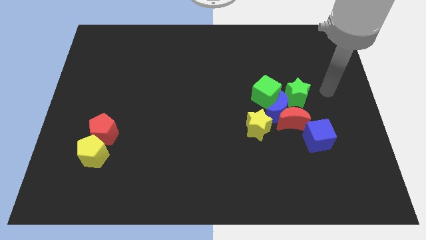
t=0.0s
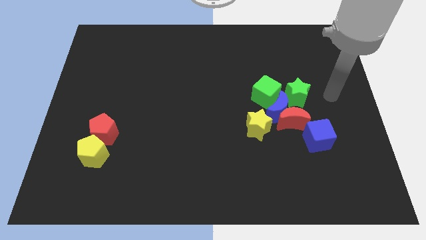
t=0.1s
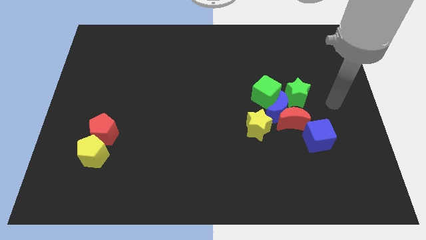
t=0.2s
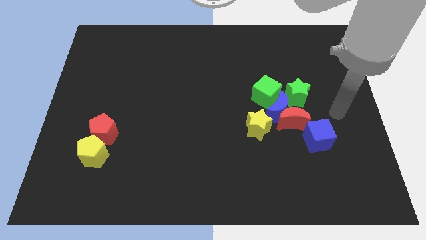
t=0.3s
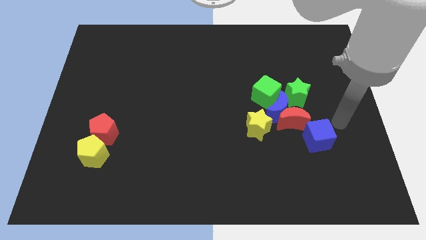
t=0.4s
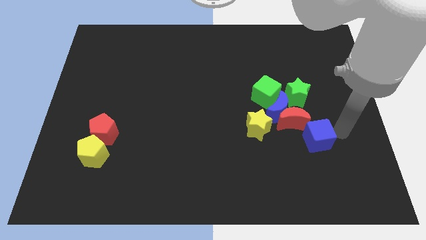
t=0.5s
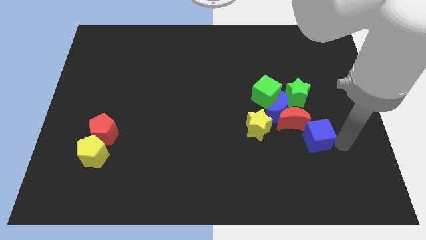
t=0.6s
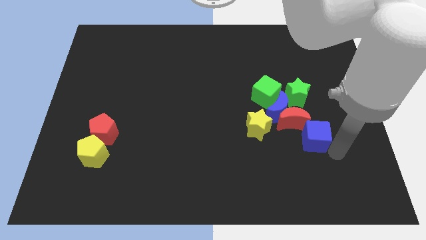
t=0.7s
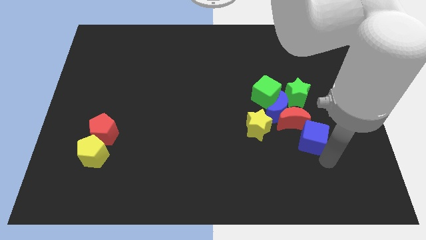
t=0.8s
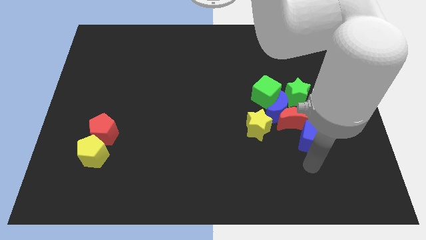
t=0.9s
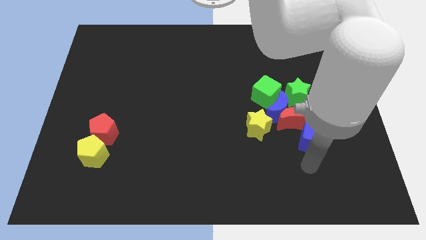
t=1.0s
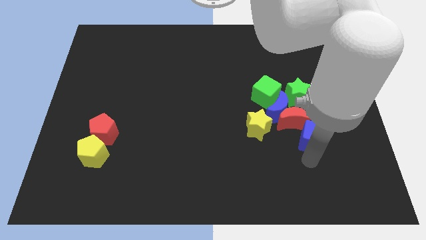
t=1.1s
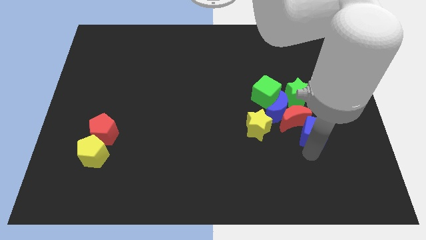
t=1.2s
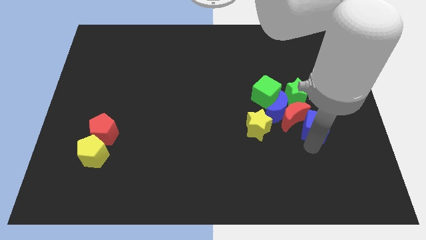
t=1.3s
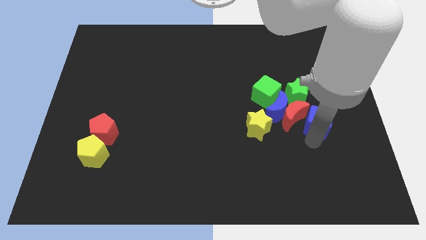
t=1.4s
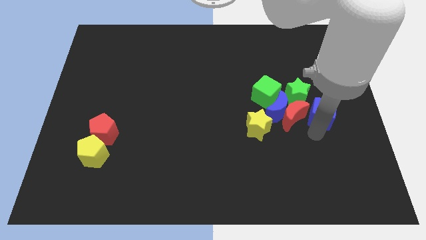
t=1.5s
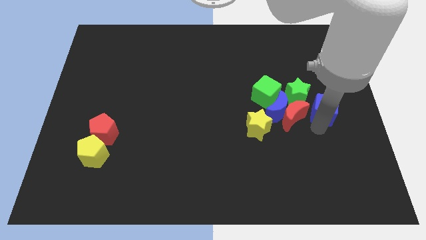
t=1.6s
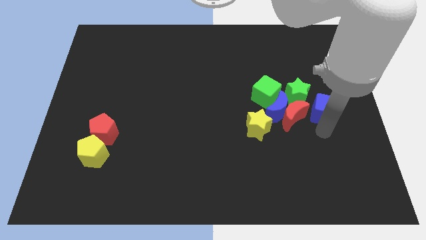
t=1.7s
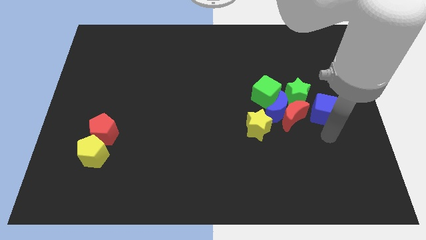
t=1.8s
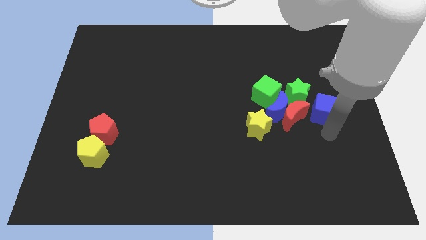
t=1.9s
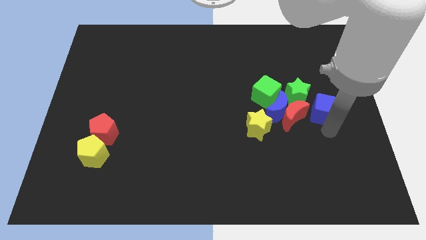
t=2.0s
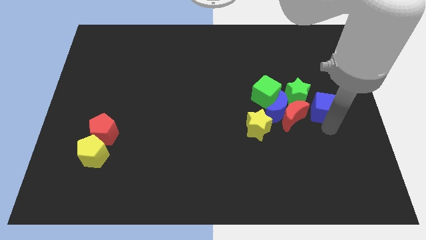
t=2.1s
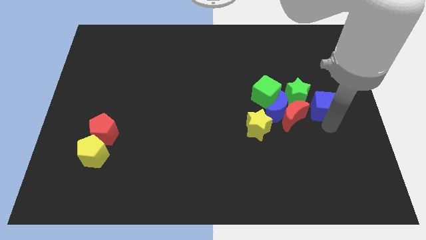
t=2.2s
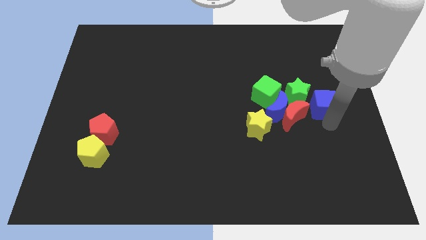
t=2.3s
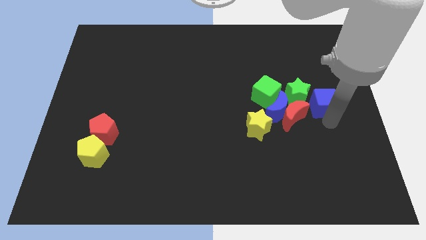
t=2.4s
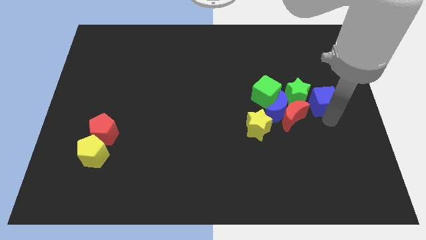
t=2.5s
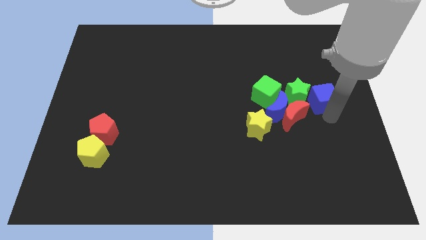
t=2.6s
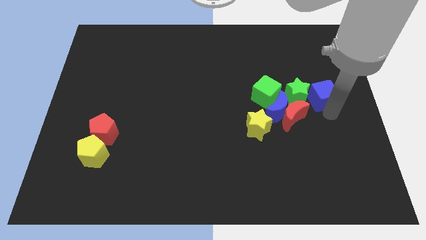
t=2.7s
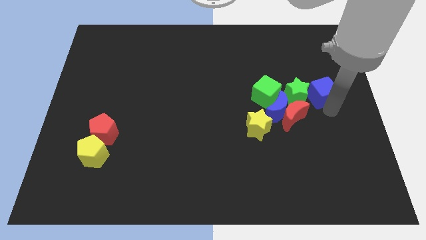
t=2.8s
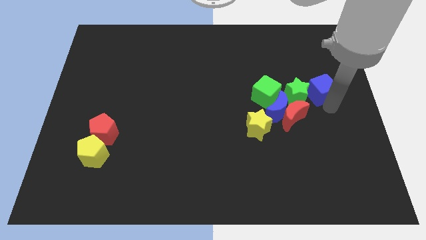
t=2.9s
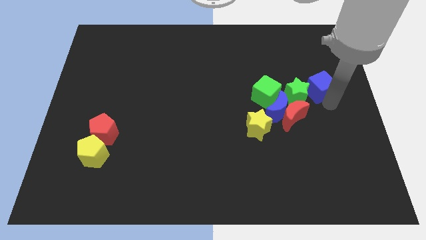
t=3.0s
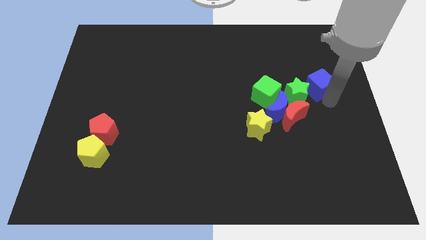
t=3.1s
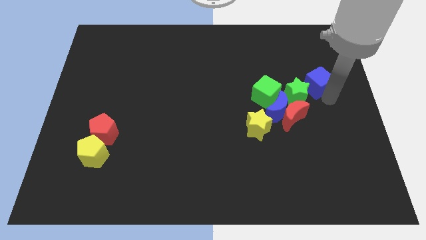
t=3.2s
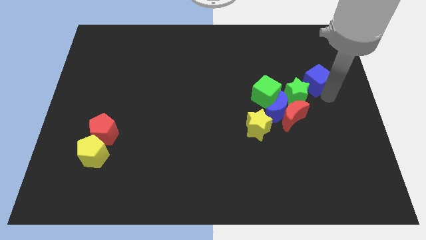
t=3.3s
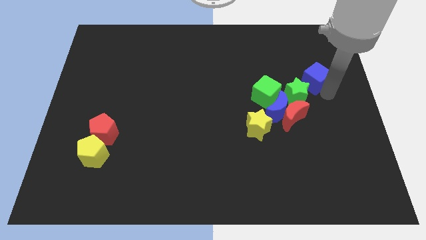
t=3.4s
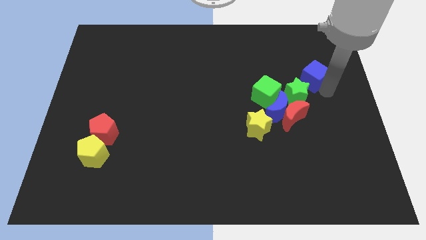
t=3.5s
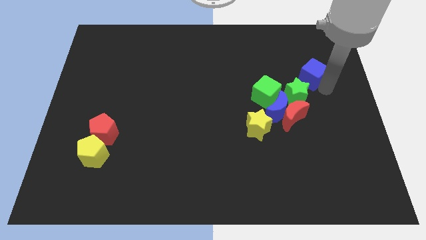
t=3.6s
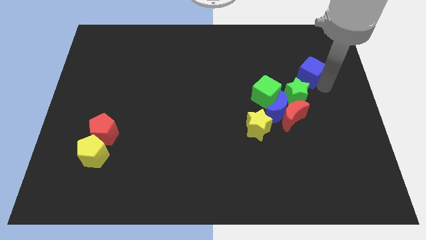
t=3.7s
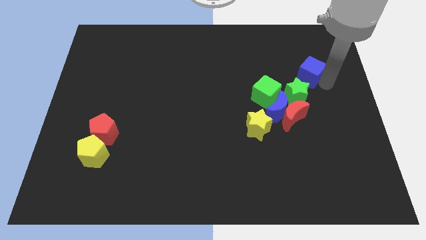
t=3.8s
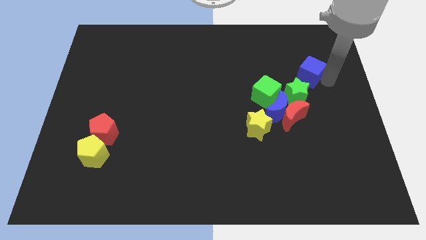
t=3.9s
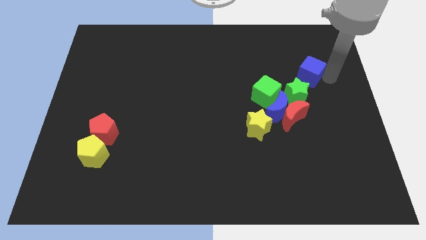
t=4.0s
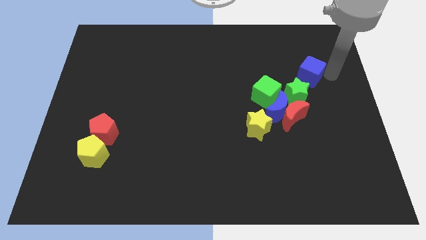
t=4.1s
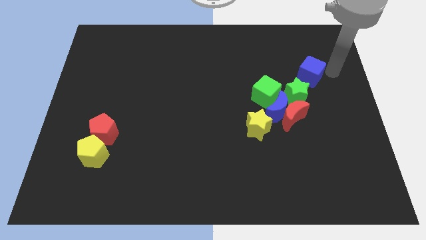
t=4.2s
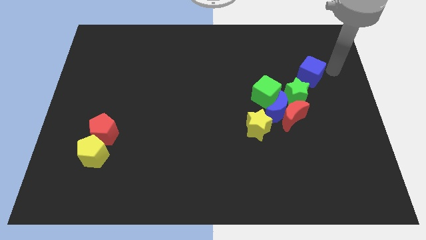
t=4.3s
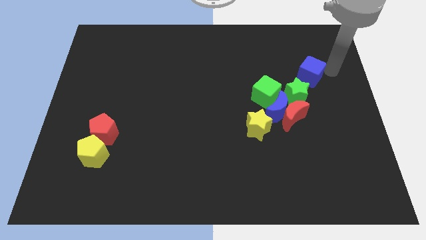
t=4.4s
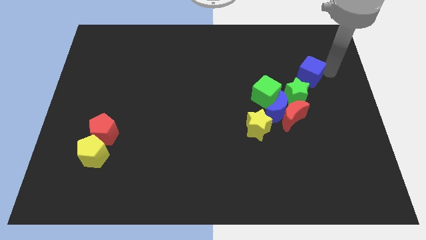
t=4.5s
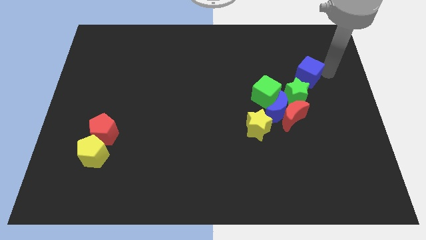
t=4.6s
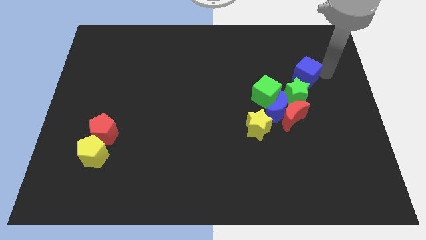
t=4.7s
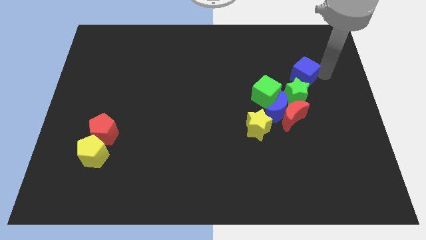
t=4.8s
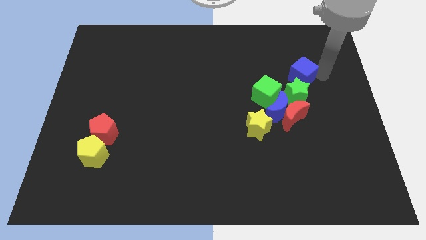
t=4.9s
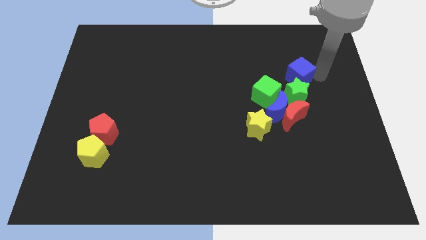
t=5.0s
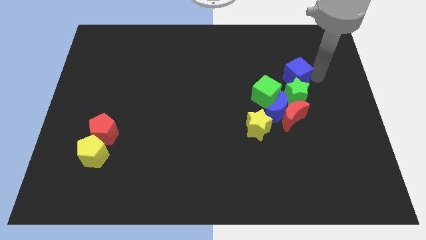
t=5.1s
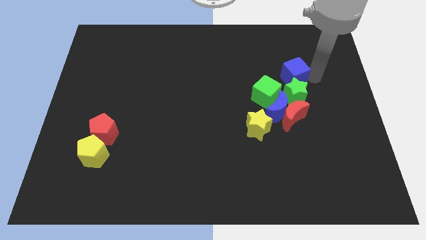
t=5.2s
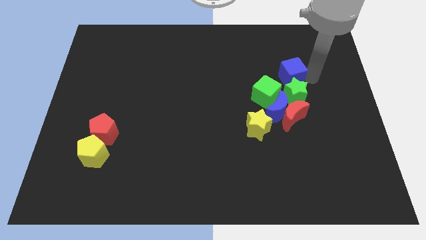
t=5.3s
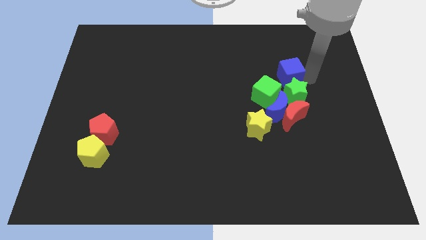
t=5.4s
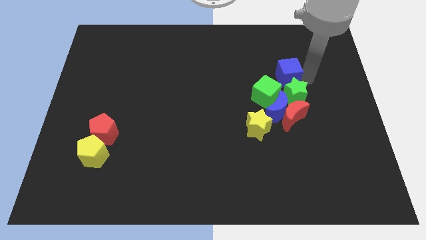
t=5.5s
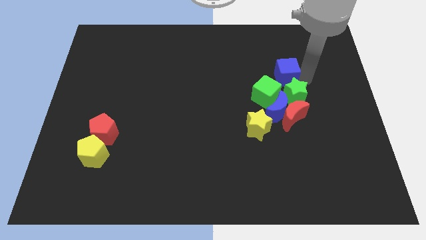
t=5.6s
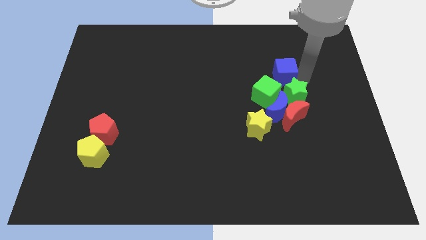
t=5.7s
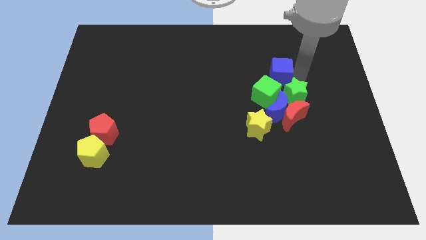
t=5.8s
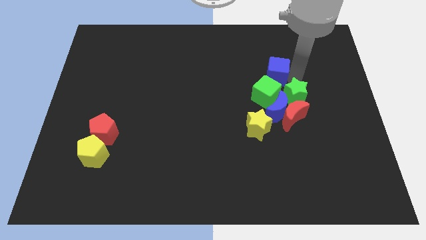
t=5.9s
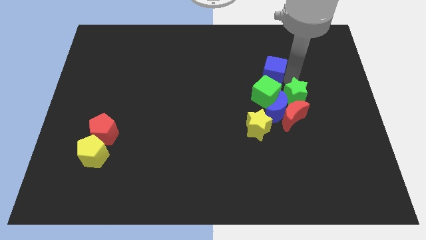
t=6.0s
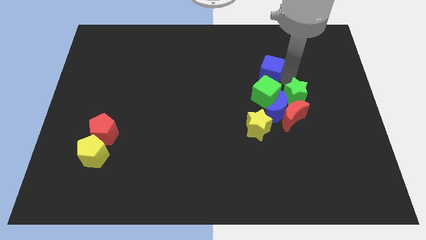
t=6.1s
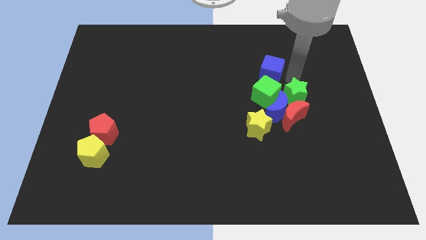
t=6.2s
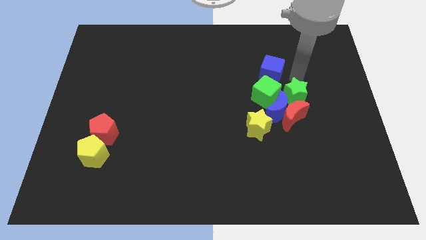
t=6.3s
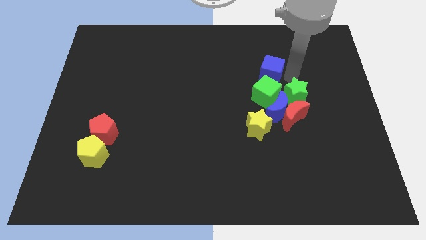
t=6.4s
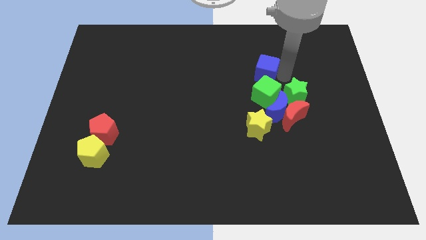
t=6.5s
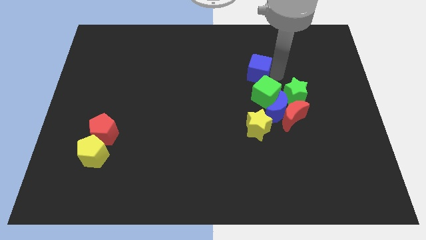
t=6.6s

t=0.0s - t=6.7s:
push the blue cube up and left

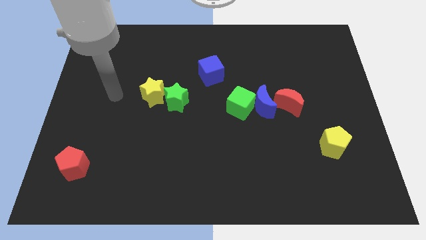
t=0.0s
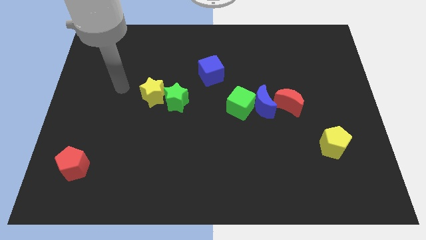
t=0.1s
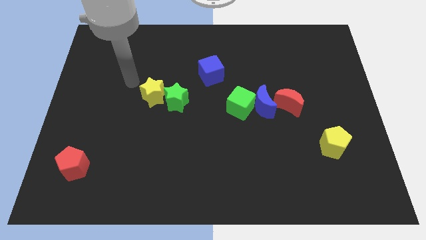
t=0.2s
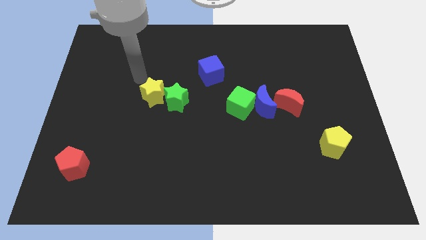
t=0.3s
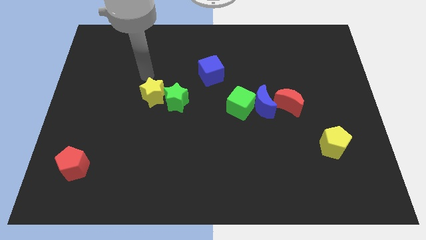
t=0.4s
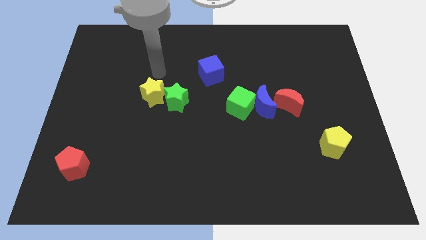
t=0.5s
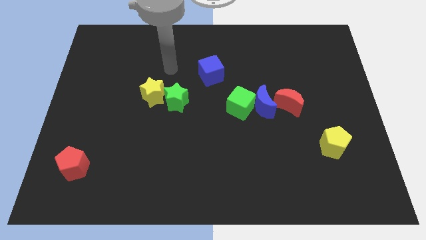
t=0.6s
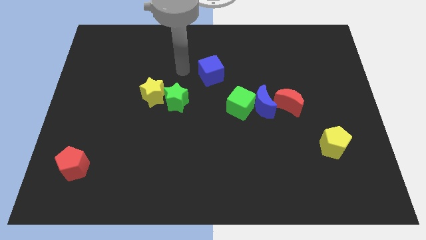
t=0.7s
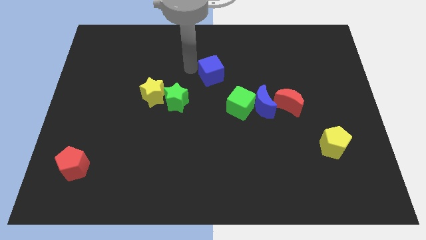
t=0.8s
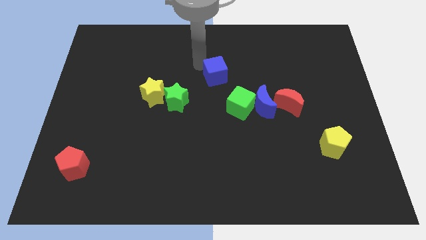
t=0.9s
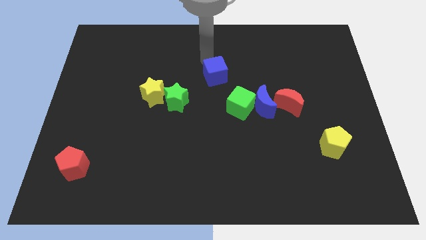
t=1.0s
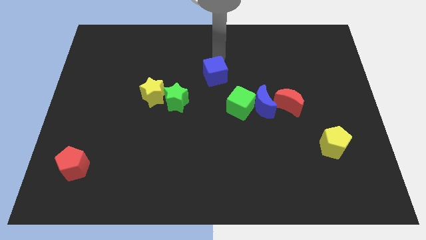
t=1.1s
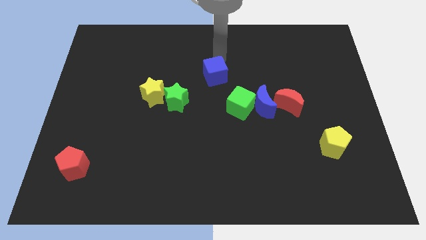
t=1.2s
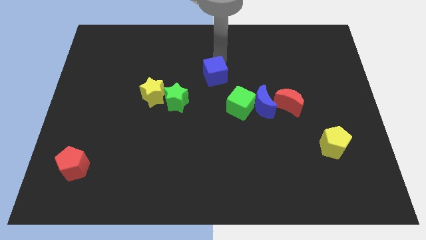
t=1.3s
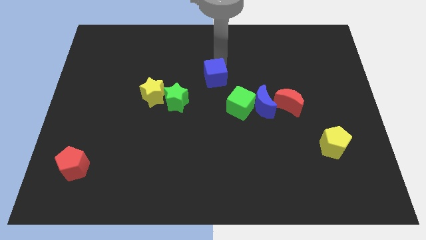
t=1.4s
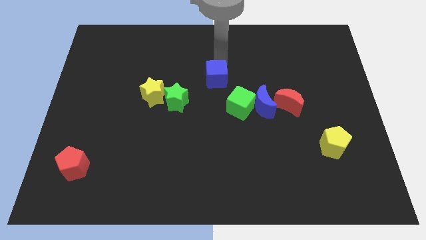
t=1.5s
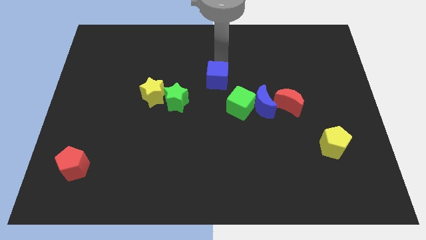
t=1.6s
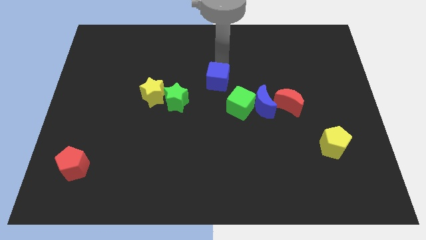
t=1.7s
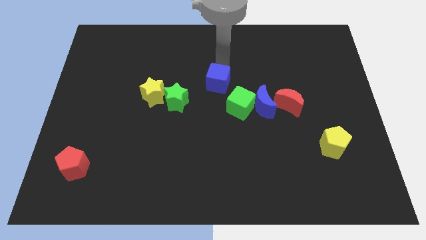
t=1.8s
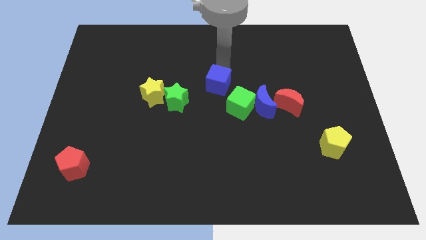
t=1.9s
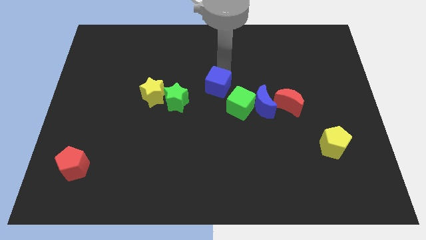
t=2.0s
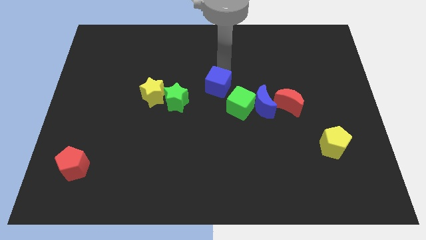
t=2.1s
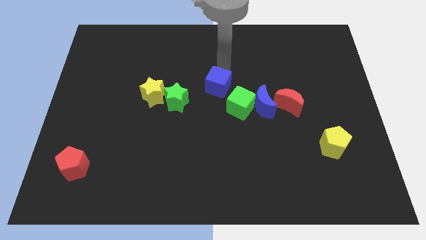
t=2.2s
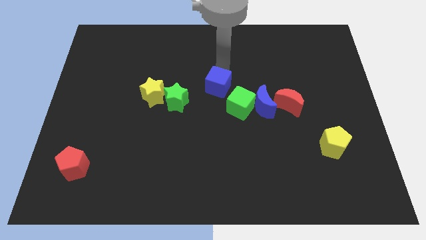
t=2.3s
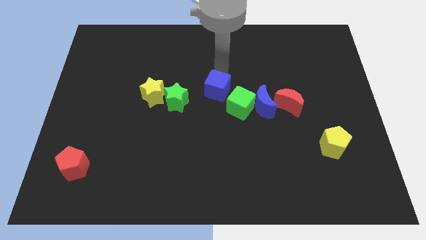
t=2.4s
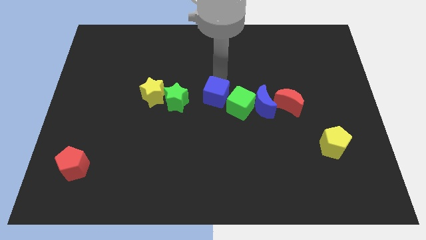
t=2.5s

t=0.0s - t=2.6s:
move the blue cube down a little
